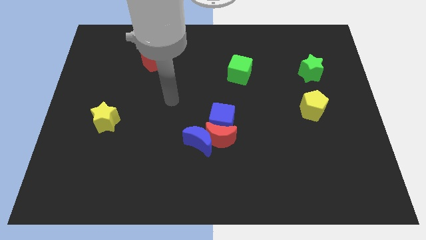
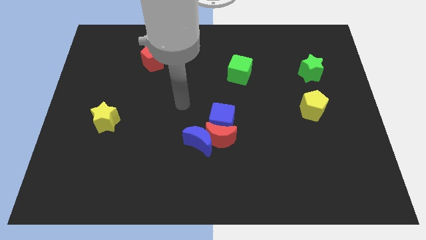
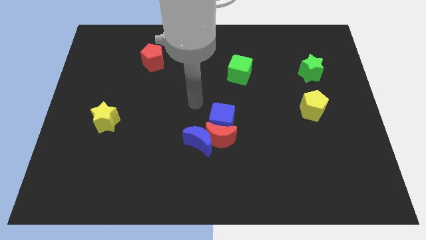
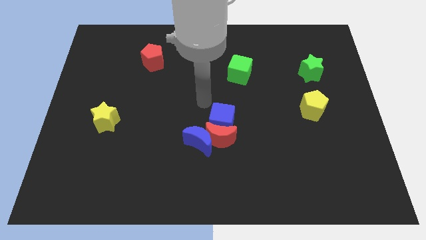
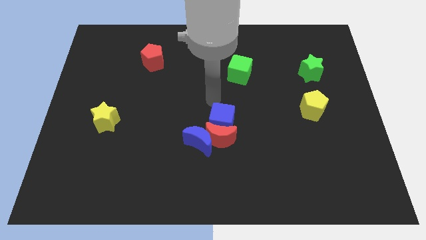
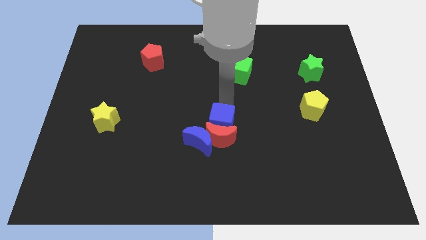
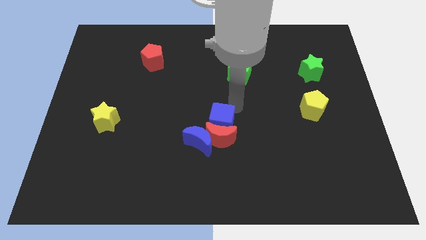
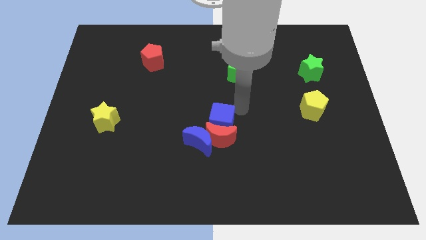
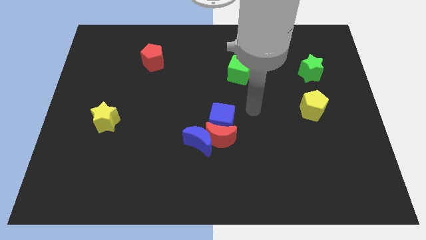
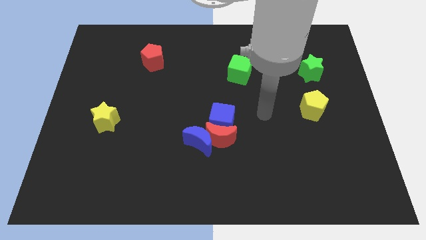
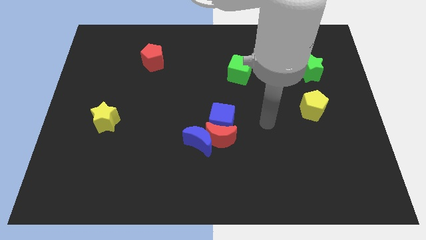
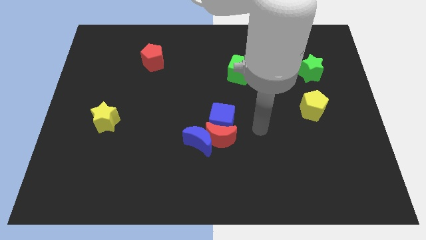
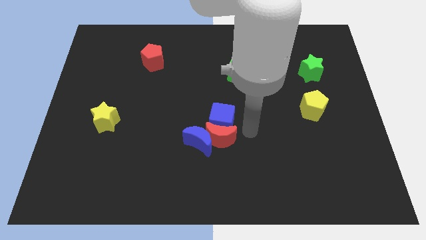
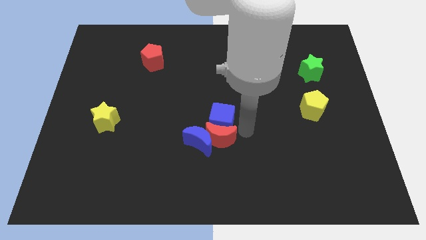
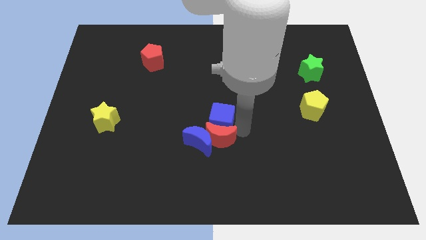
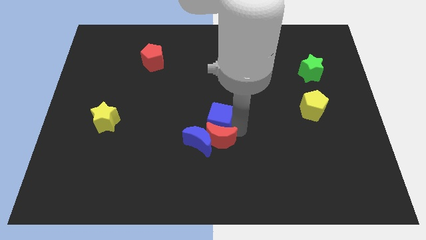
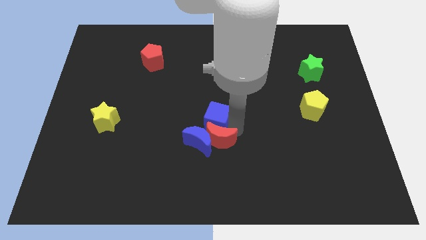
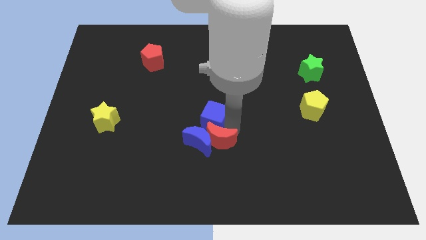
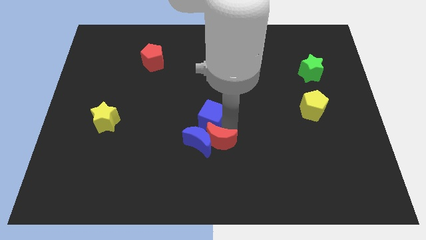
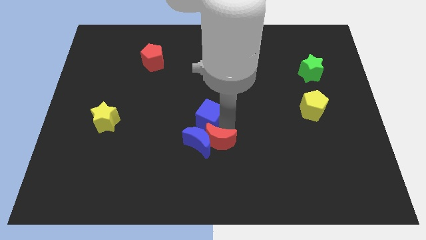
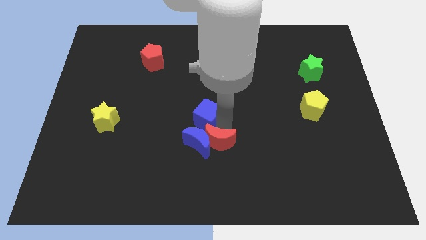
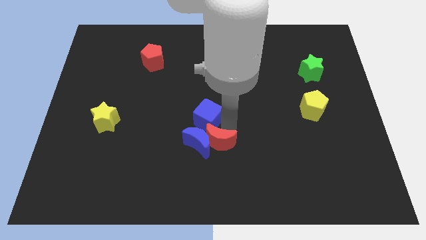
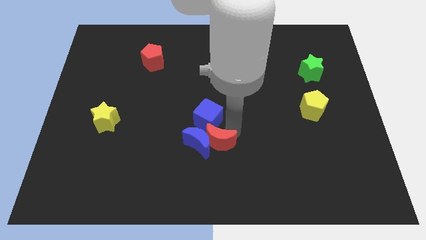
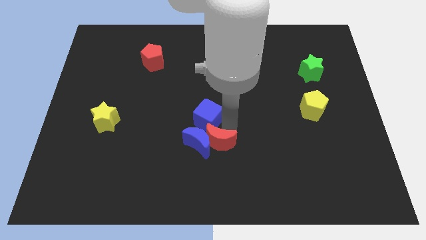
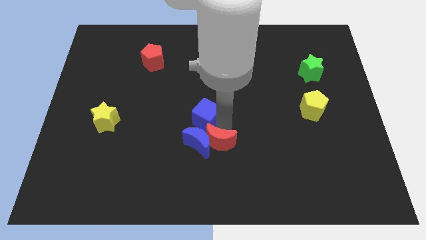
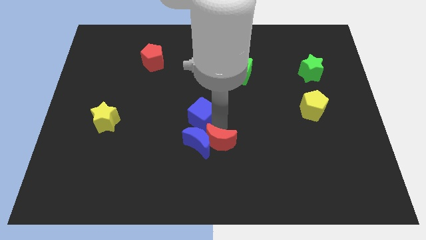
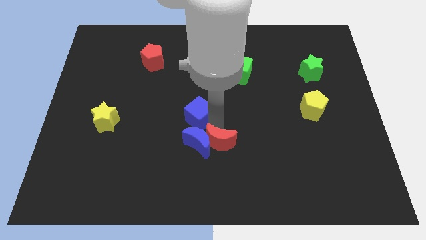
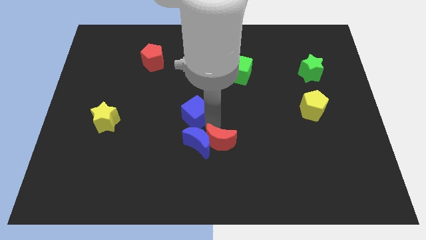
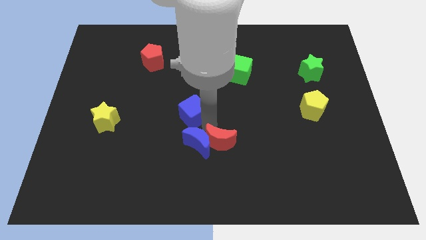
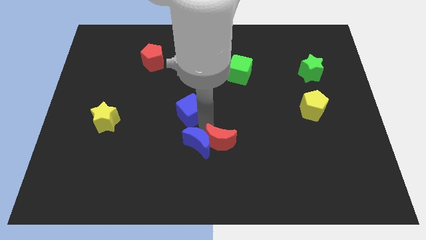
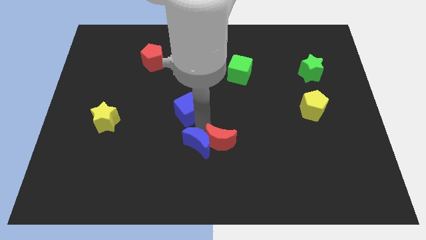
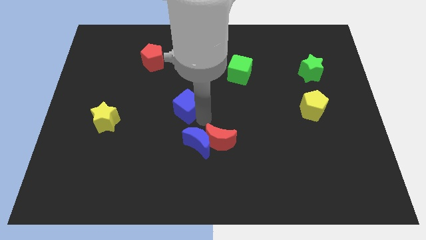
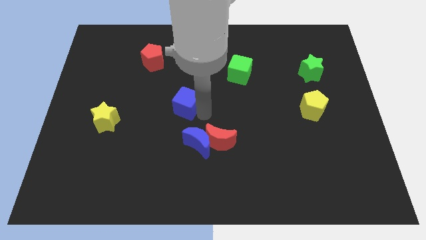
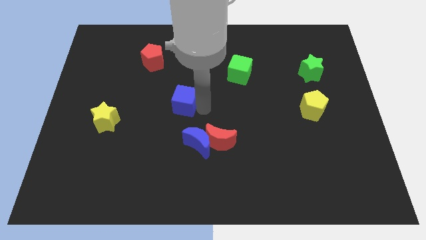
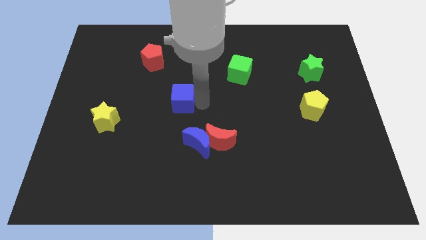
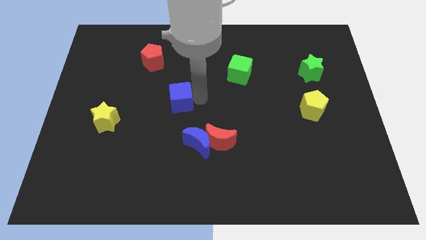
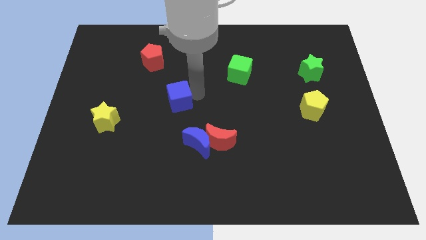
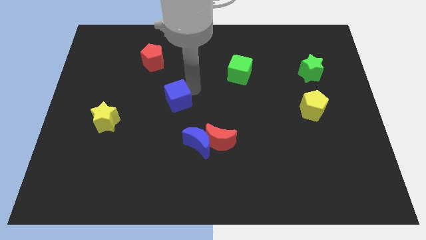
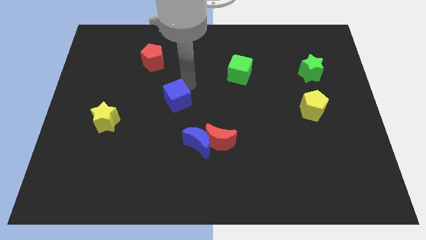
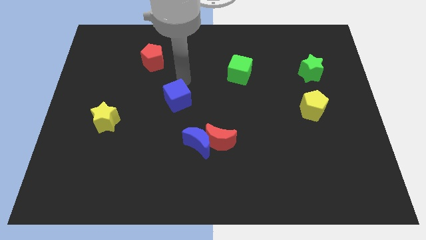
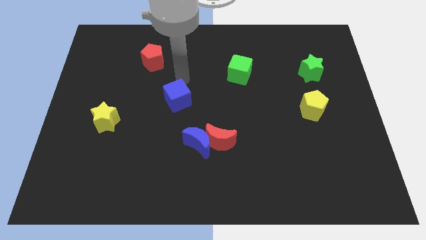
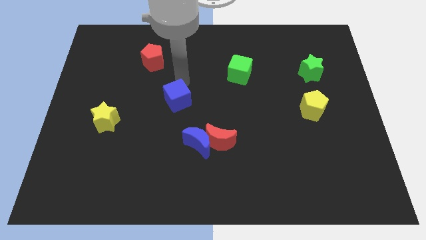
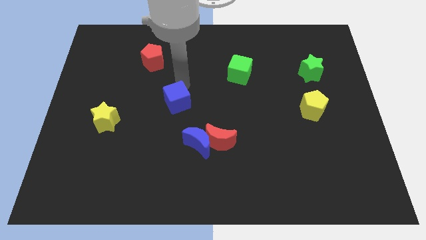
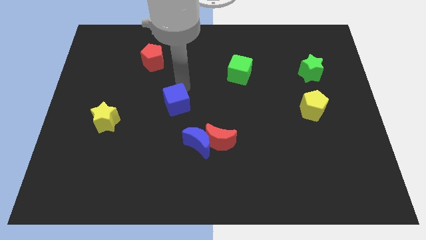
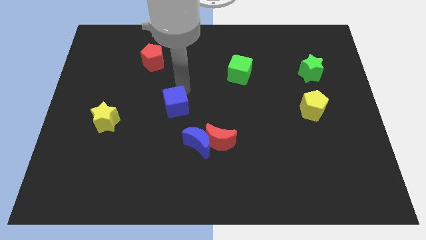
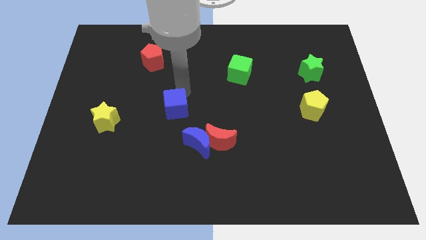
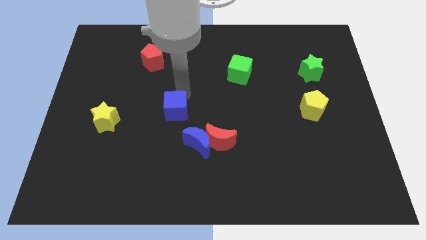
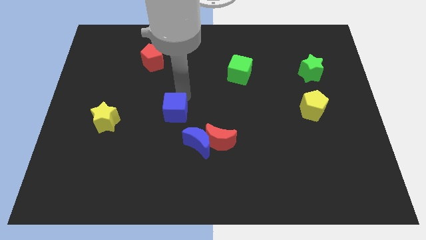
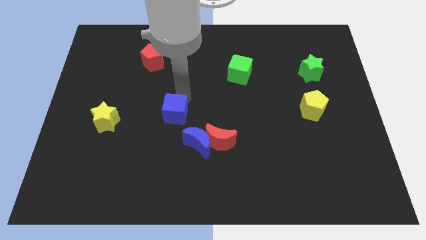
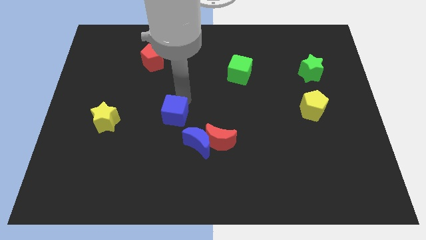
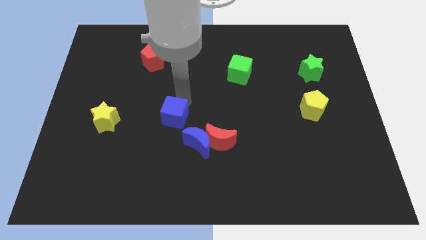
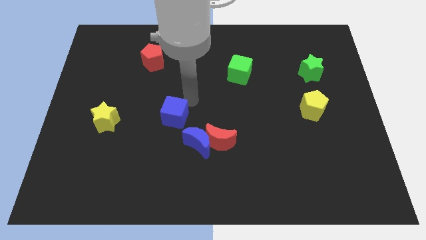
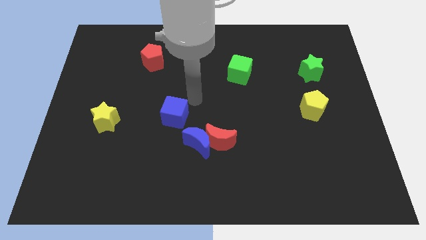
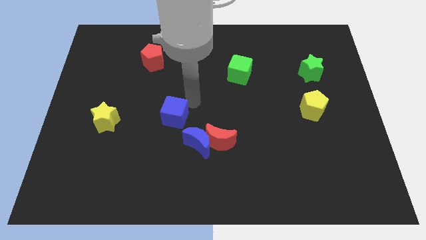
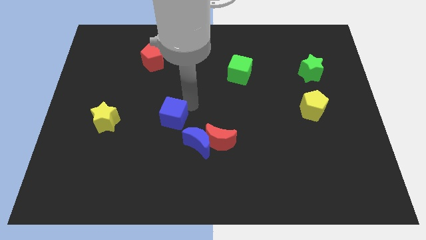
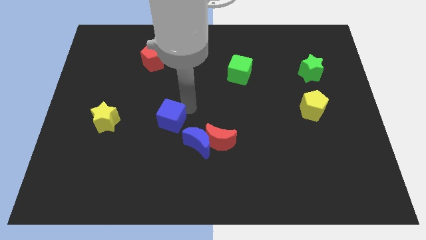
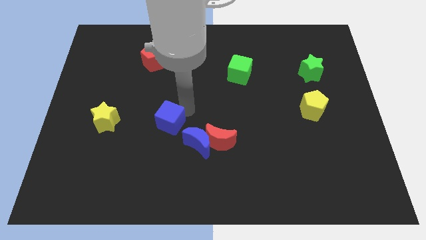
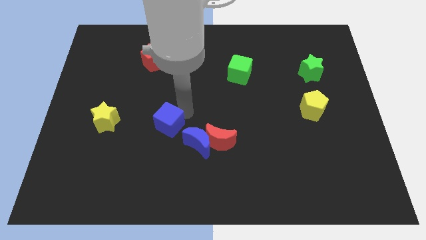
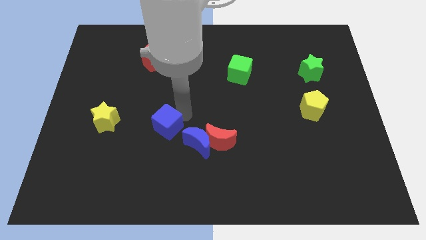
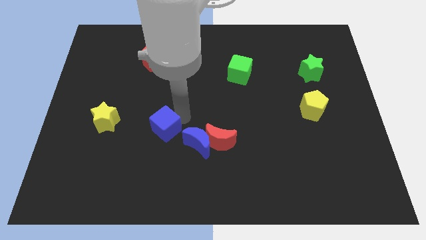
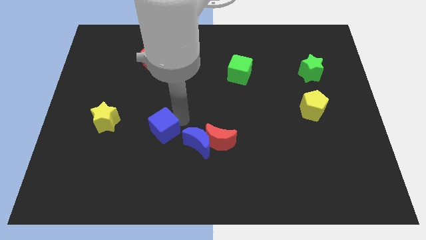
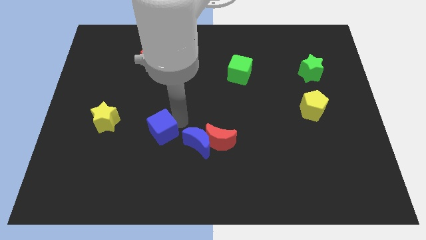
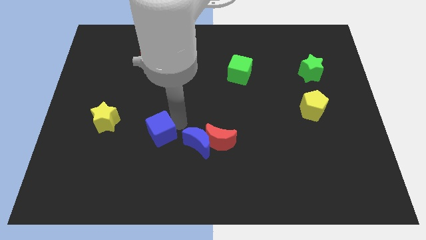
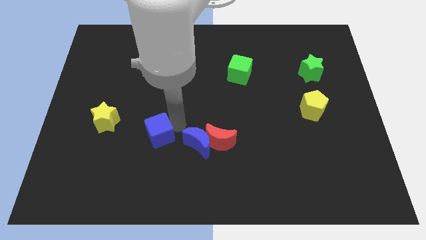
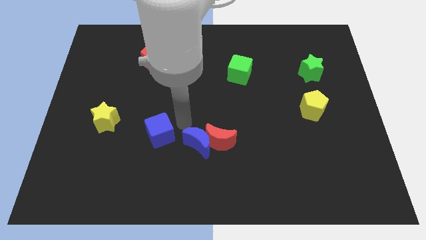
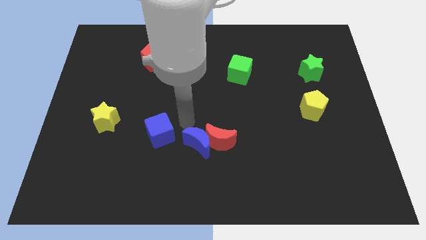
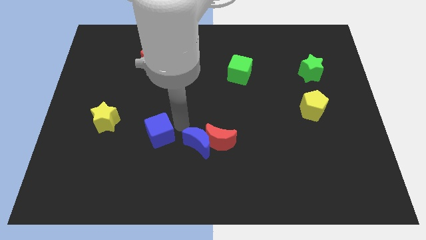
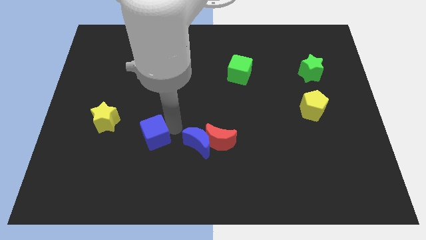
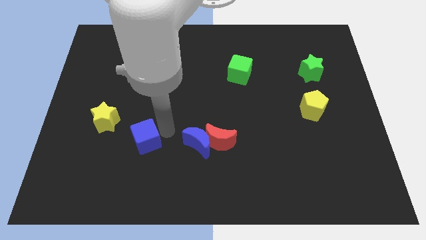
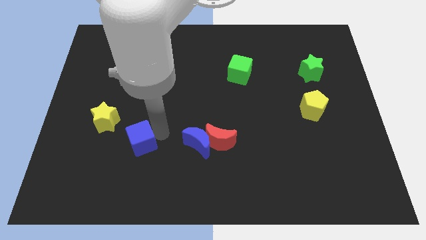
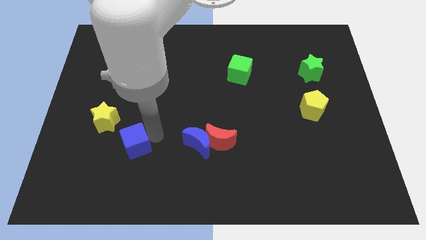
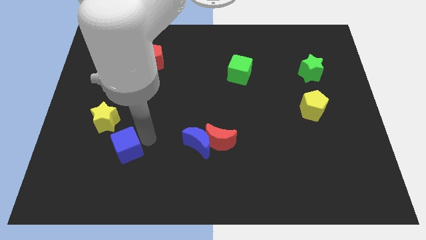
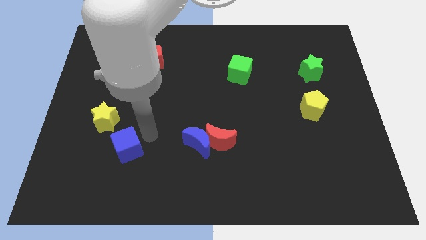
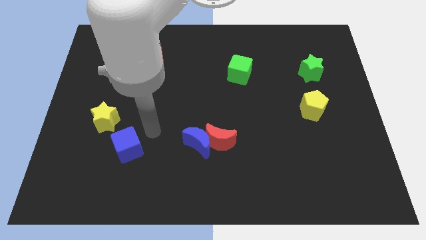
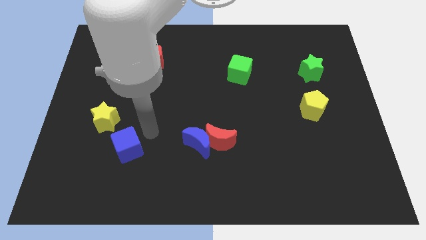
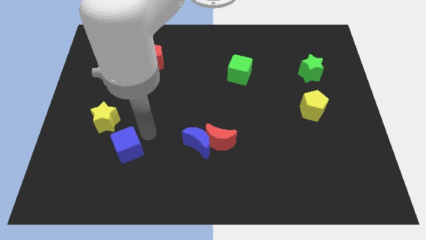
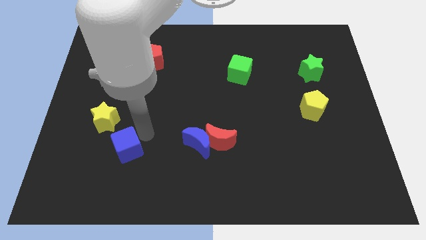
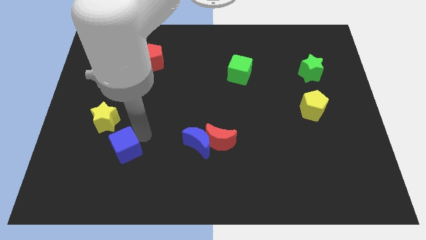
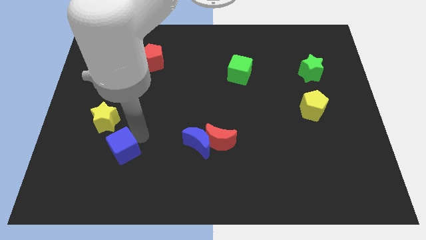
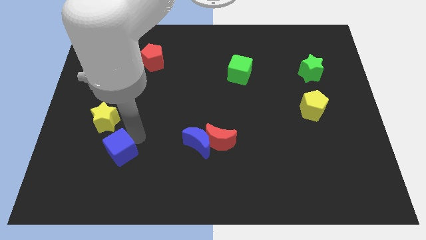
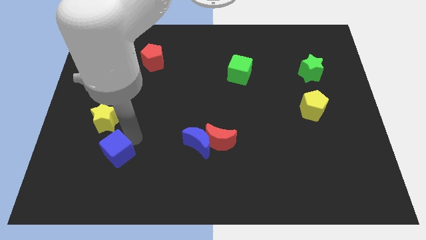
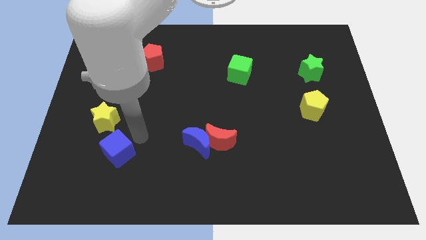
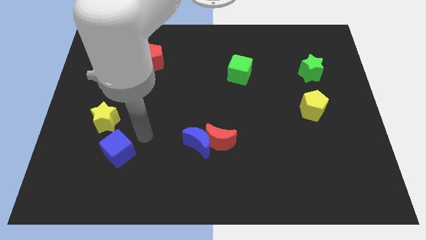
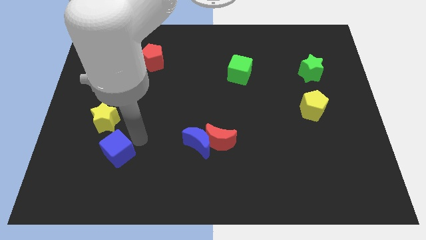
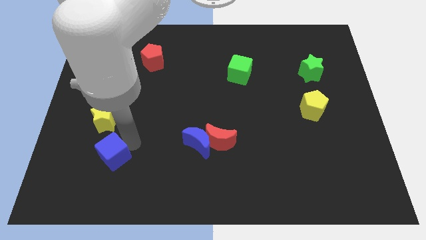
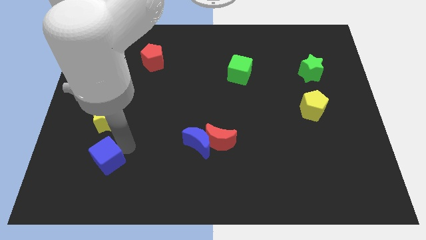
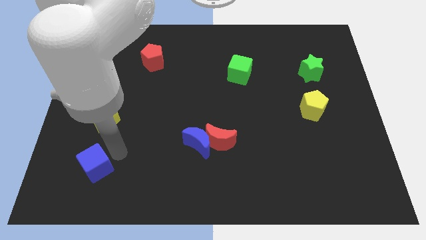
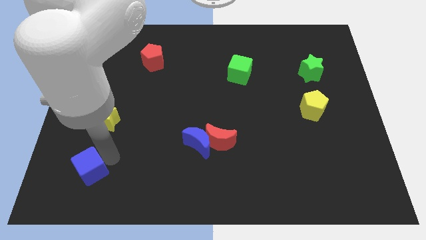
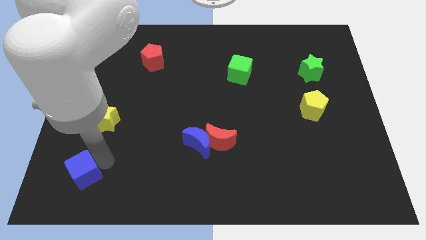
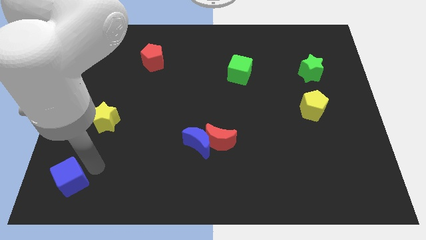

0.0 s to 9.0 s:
put the blue cube to the bottom left corner
